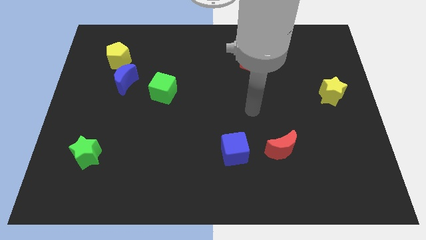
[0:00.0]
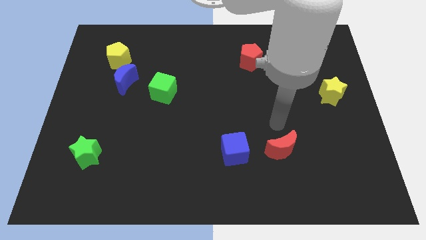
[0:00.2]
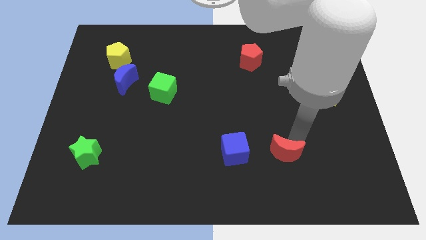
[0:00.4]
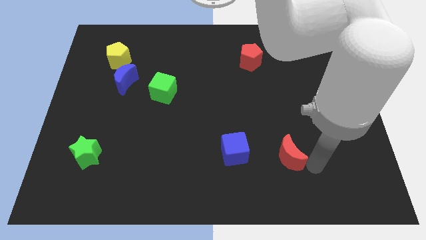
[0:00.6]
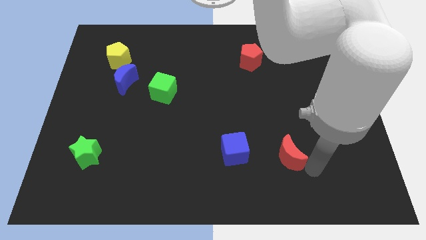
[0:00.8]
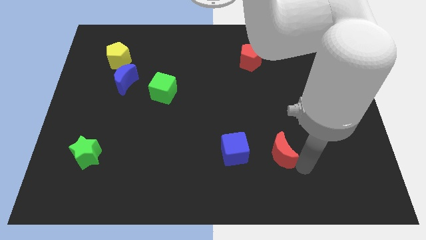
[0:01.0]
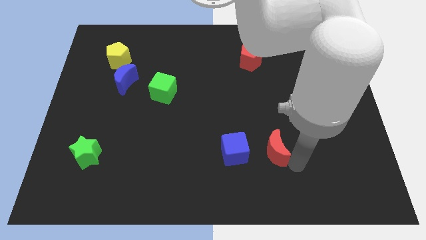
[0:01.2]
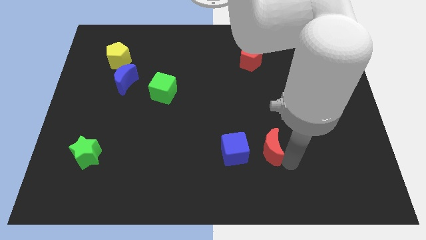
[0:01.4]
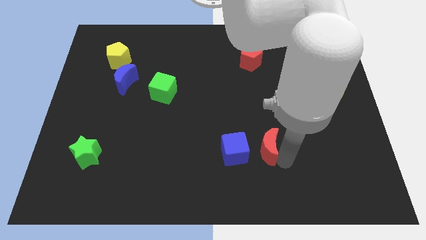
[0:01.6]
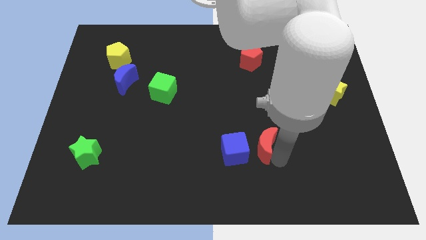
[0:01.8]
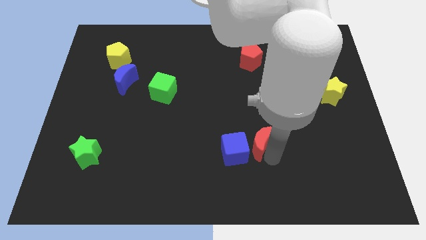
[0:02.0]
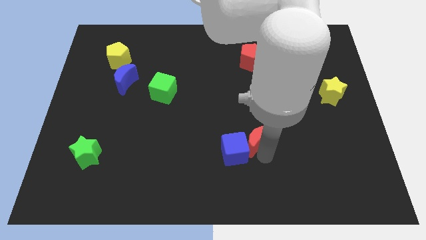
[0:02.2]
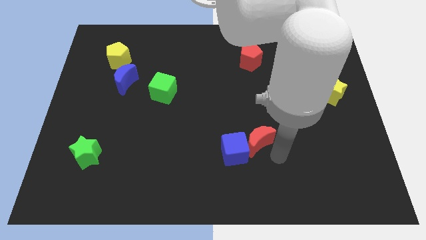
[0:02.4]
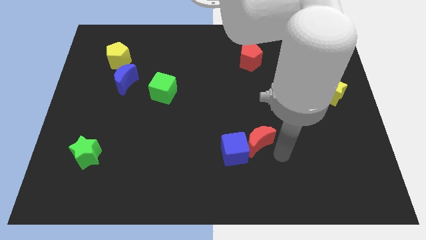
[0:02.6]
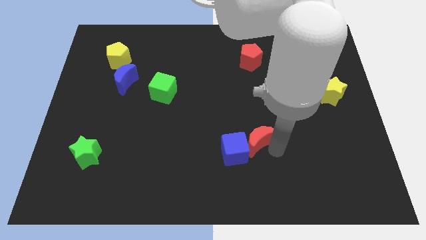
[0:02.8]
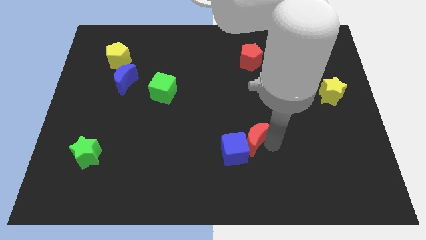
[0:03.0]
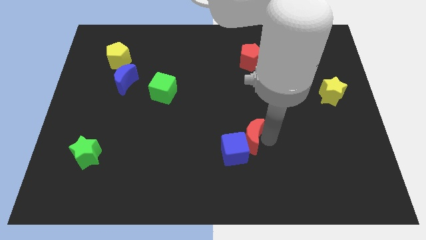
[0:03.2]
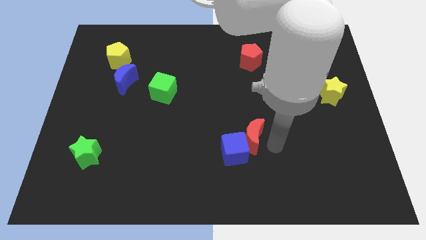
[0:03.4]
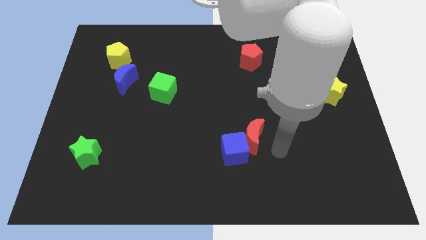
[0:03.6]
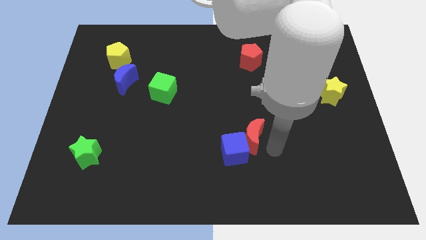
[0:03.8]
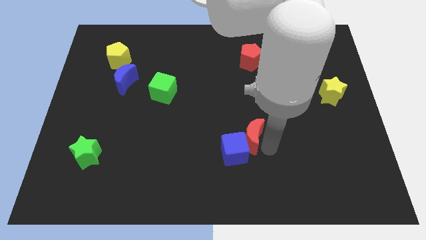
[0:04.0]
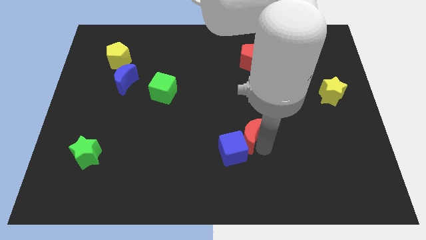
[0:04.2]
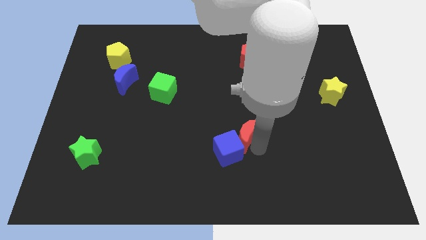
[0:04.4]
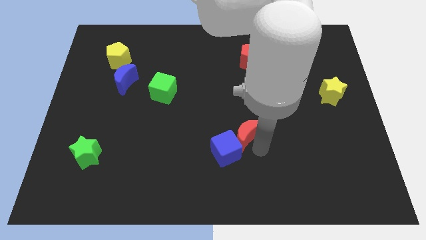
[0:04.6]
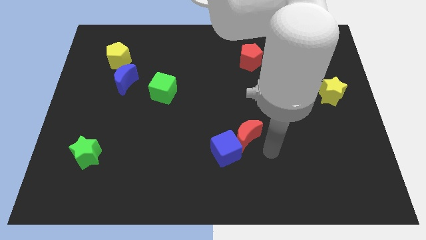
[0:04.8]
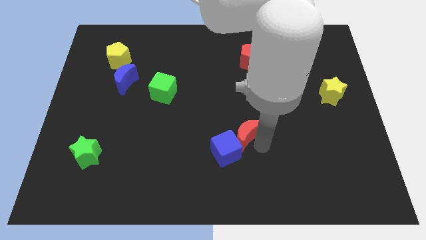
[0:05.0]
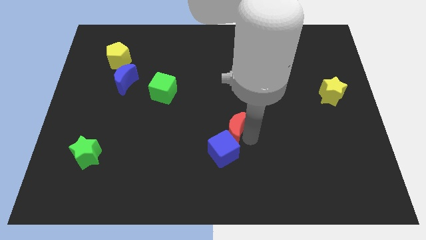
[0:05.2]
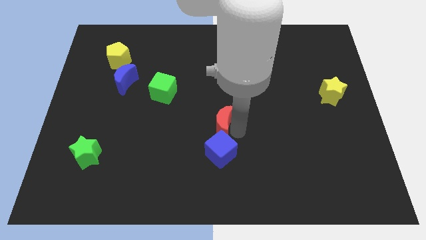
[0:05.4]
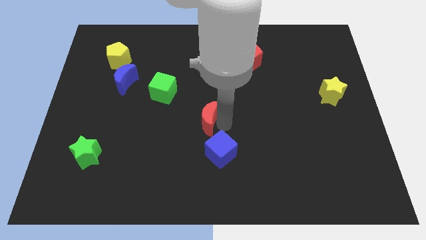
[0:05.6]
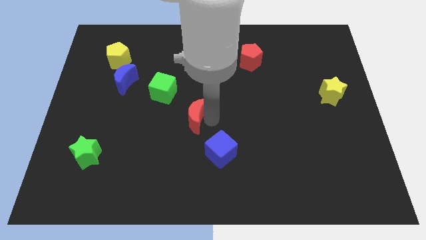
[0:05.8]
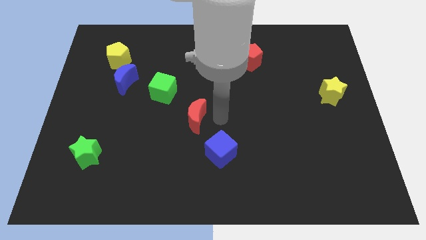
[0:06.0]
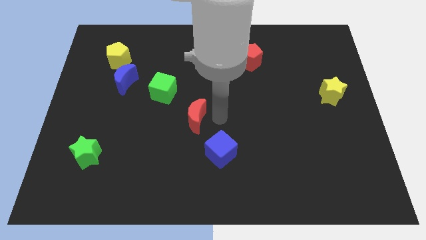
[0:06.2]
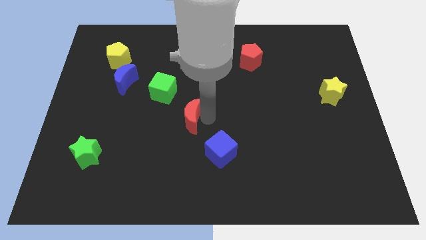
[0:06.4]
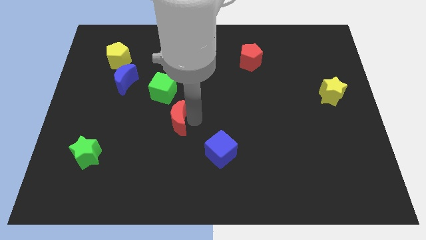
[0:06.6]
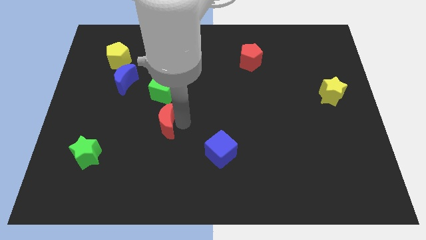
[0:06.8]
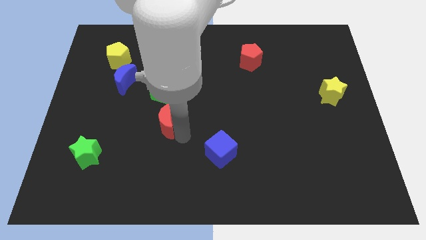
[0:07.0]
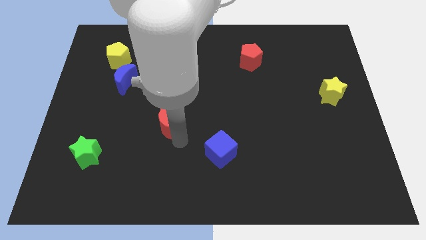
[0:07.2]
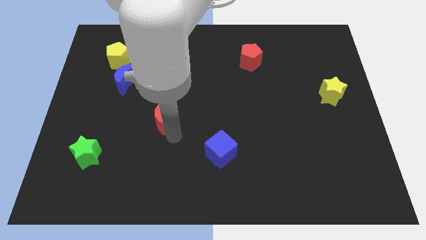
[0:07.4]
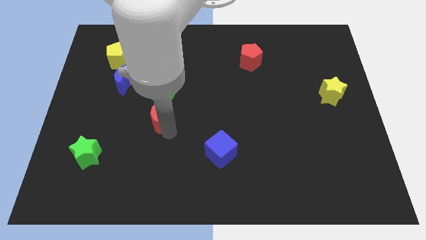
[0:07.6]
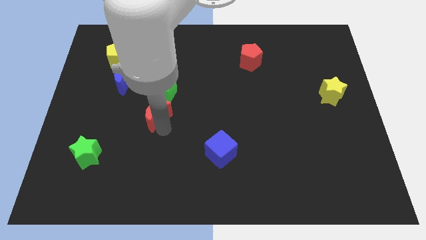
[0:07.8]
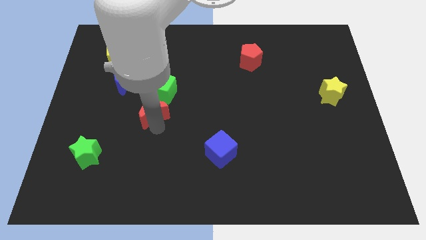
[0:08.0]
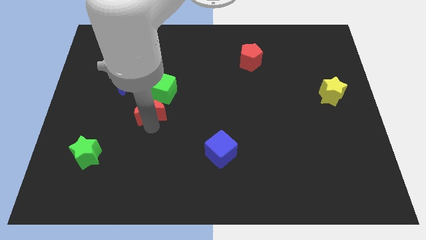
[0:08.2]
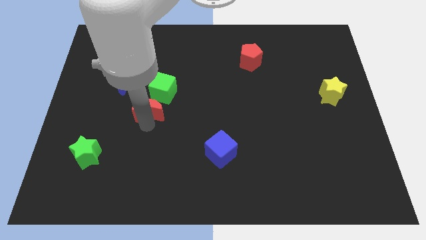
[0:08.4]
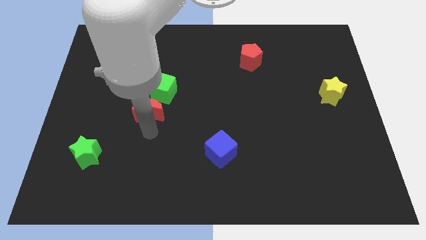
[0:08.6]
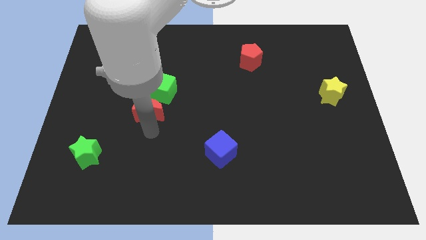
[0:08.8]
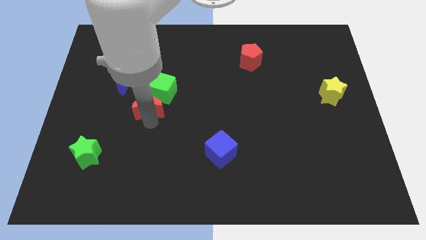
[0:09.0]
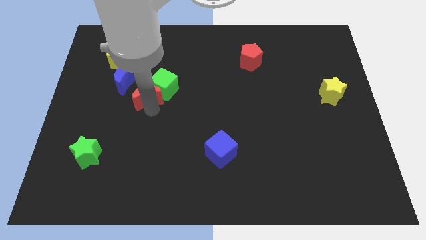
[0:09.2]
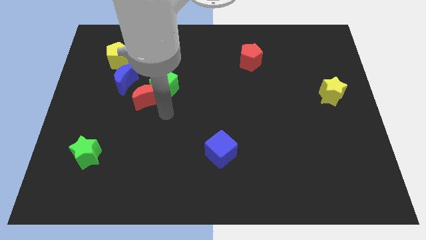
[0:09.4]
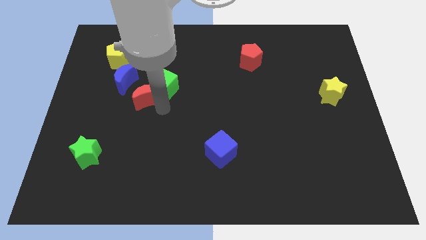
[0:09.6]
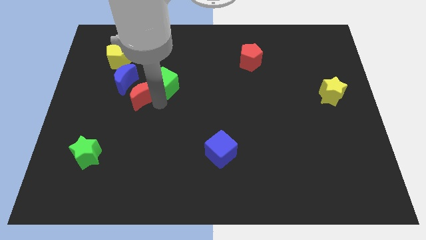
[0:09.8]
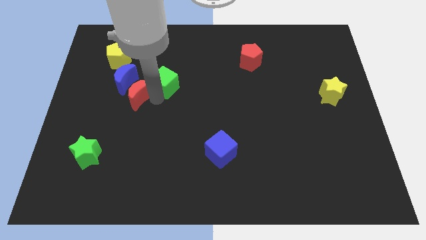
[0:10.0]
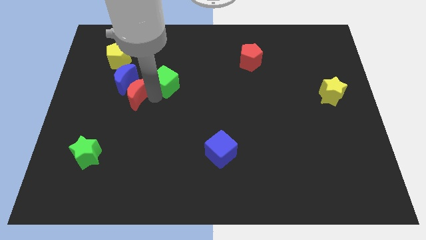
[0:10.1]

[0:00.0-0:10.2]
put the red moon towards the blue moon

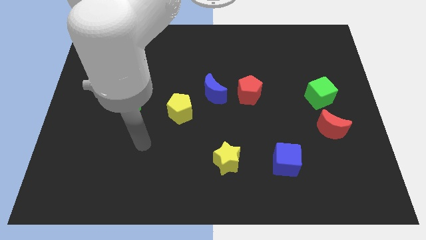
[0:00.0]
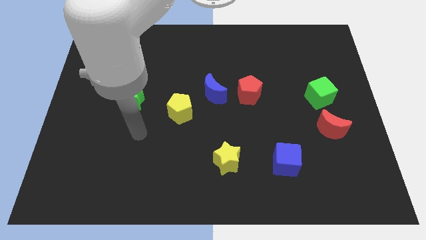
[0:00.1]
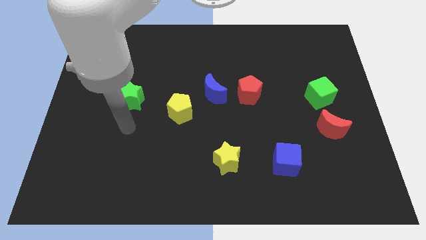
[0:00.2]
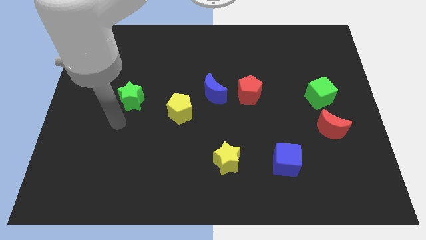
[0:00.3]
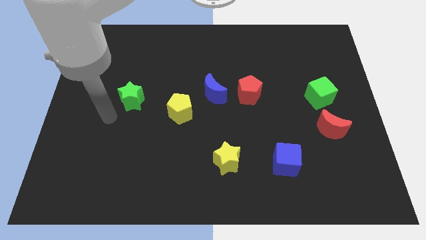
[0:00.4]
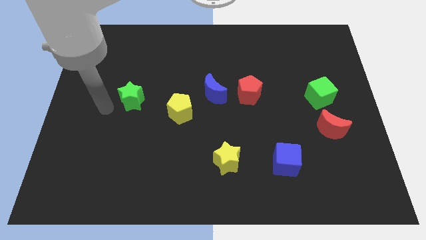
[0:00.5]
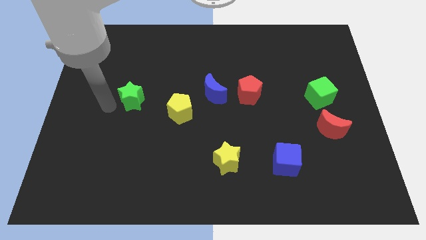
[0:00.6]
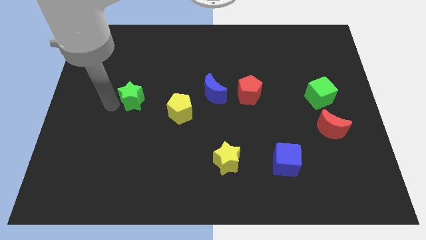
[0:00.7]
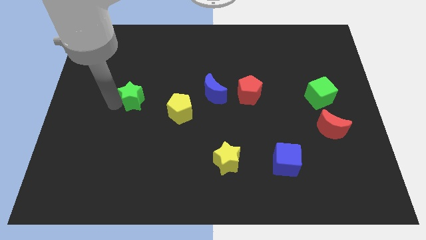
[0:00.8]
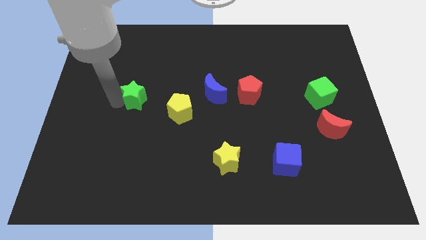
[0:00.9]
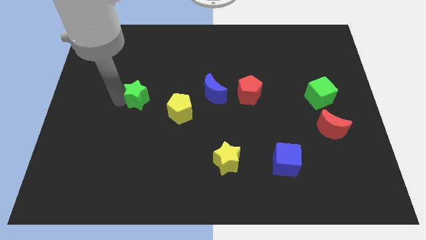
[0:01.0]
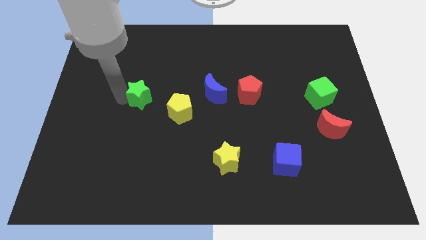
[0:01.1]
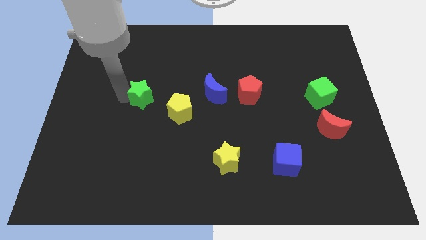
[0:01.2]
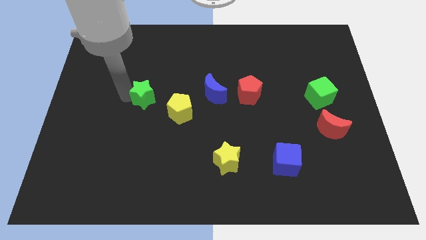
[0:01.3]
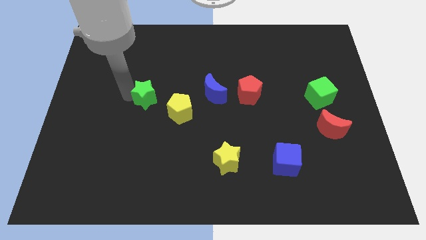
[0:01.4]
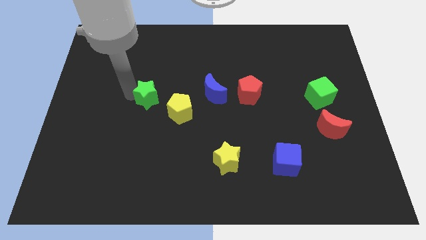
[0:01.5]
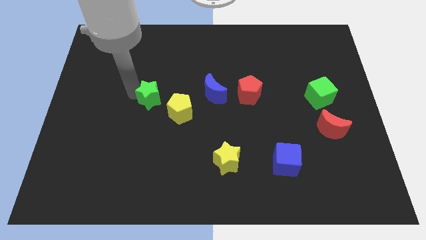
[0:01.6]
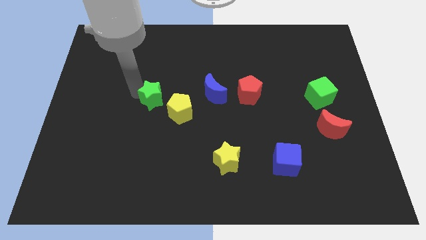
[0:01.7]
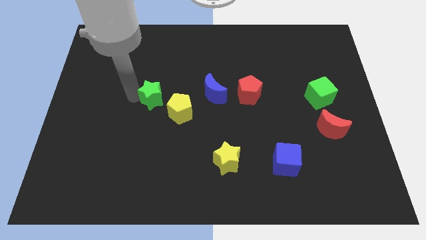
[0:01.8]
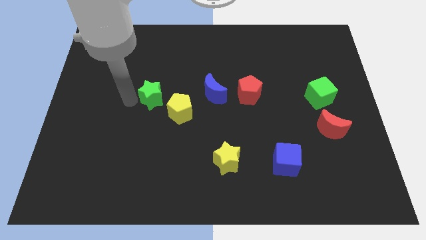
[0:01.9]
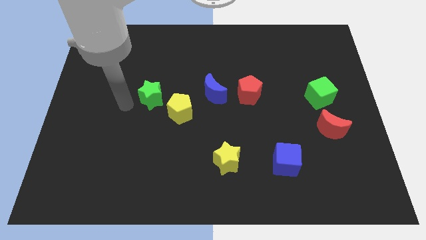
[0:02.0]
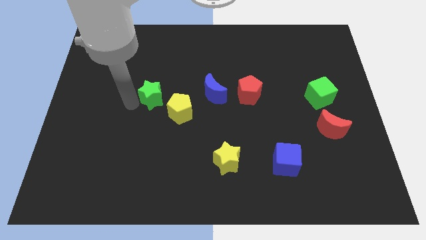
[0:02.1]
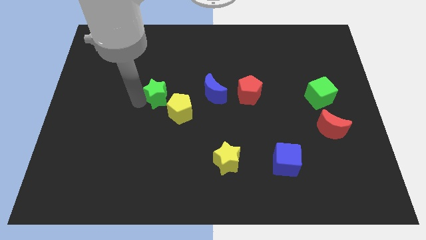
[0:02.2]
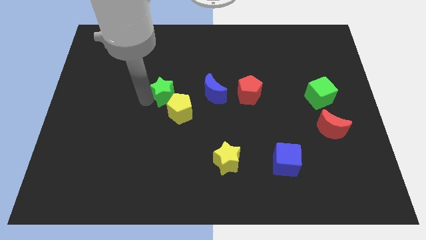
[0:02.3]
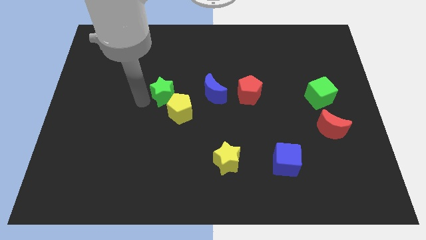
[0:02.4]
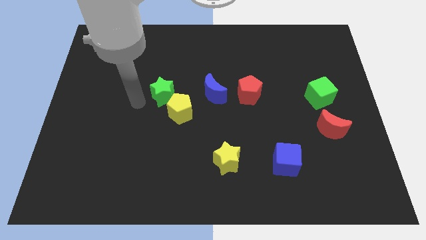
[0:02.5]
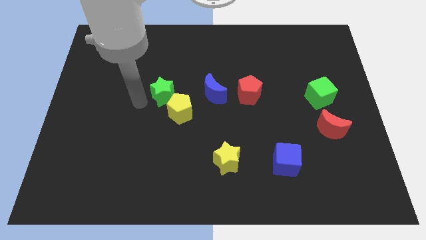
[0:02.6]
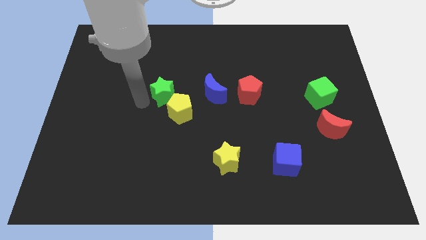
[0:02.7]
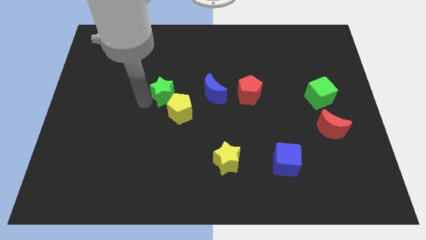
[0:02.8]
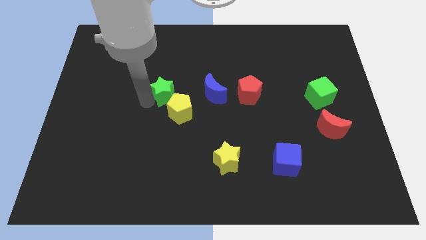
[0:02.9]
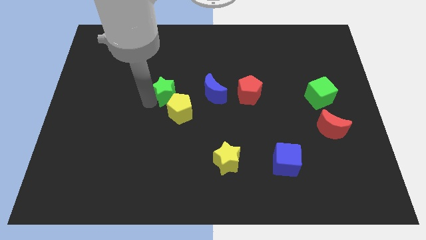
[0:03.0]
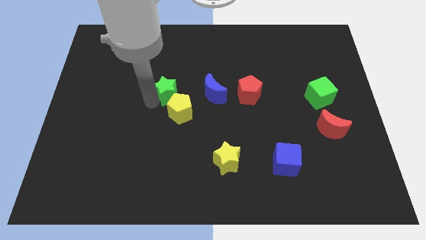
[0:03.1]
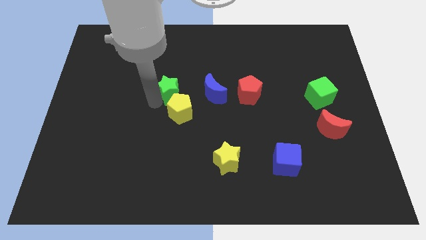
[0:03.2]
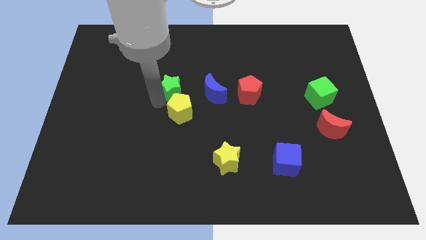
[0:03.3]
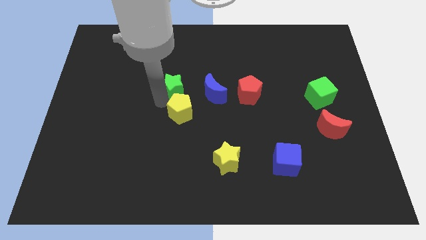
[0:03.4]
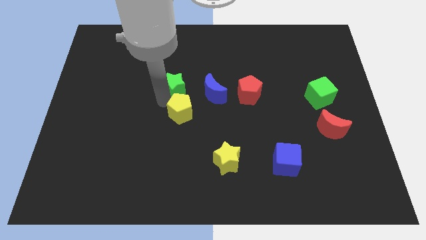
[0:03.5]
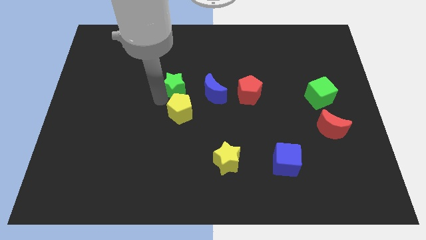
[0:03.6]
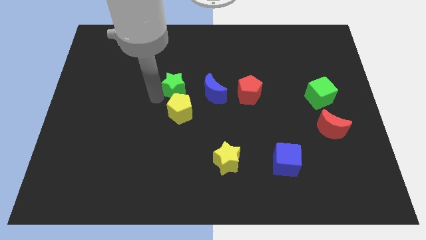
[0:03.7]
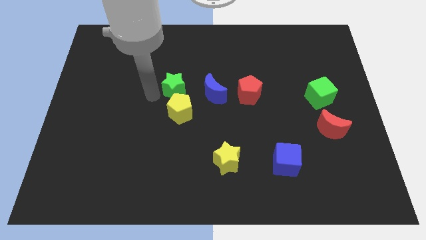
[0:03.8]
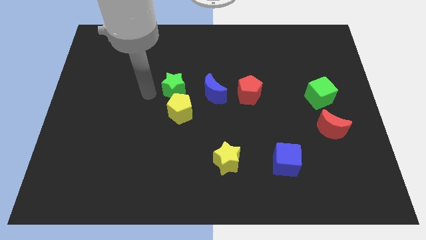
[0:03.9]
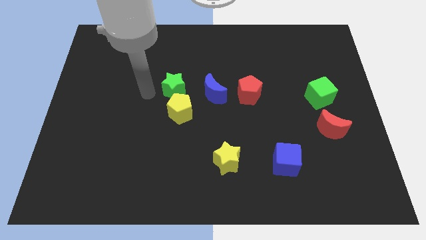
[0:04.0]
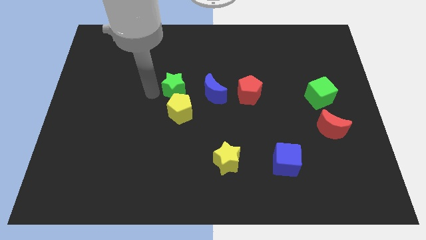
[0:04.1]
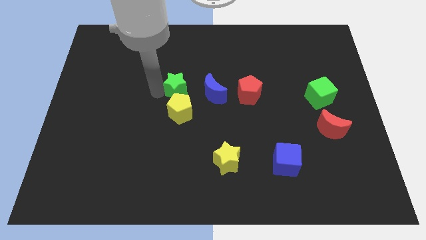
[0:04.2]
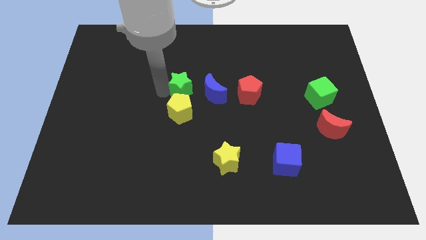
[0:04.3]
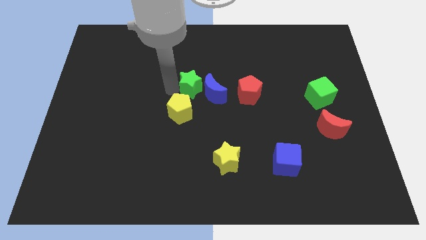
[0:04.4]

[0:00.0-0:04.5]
move the green star close to the blue moon
